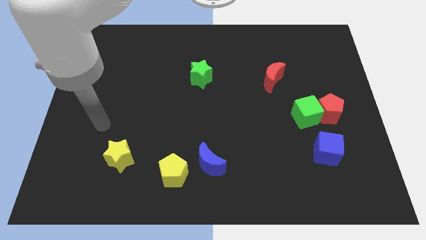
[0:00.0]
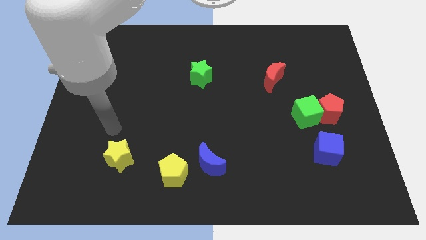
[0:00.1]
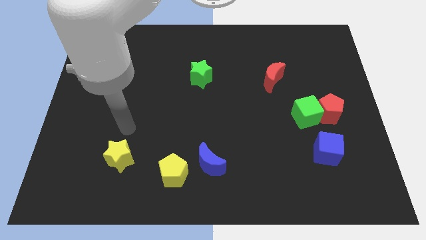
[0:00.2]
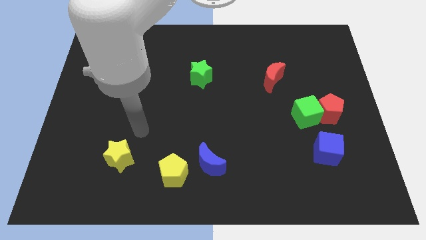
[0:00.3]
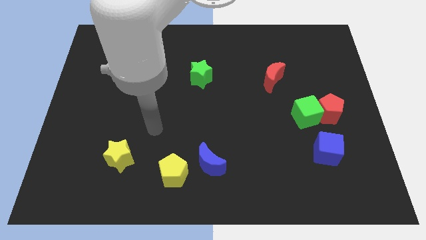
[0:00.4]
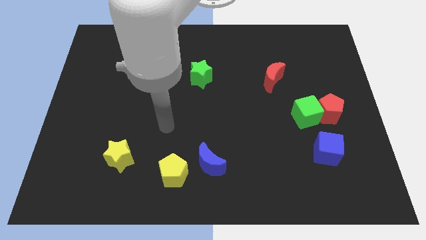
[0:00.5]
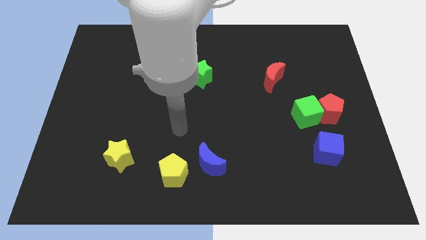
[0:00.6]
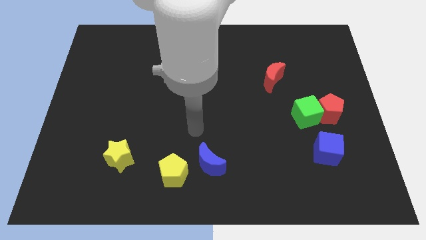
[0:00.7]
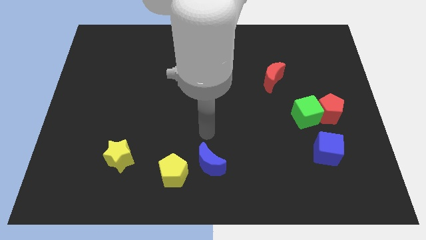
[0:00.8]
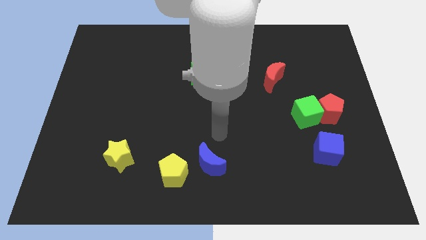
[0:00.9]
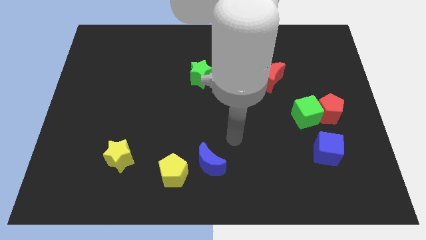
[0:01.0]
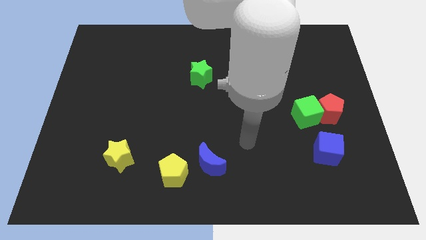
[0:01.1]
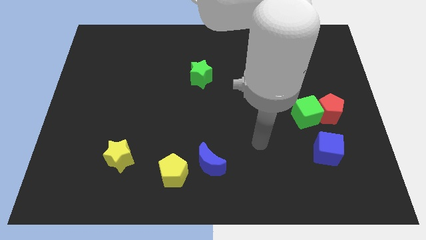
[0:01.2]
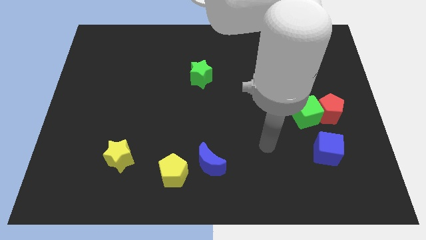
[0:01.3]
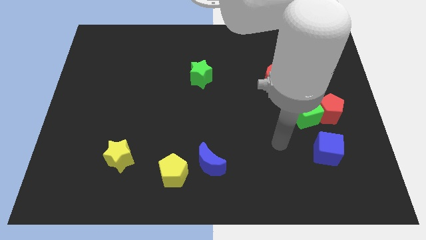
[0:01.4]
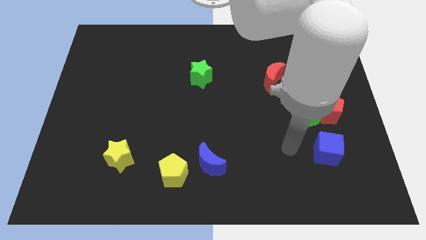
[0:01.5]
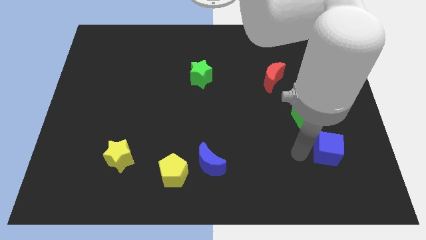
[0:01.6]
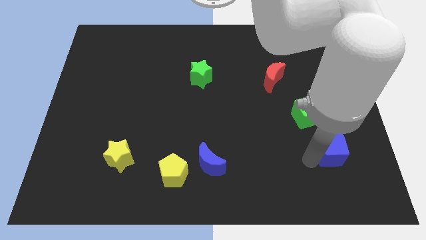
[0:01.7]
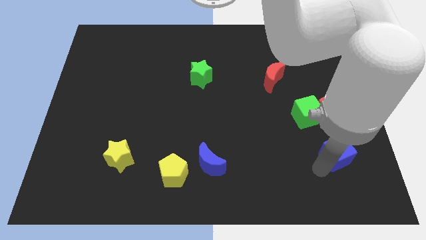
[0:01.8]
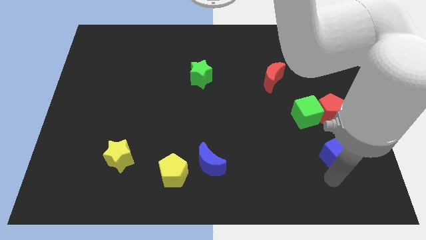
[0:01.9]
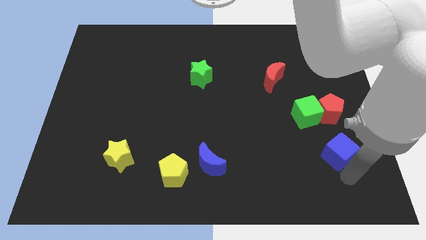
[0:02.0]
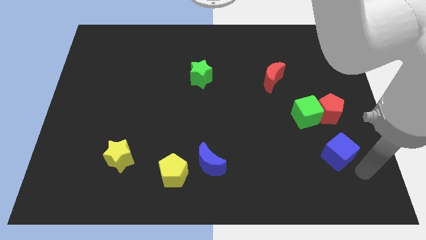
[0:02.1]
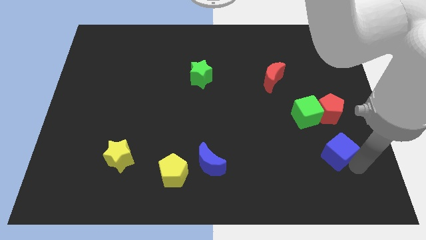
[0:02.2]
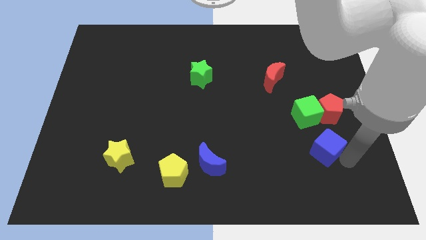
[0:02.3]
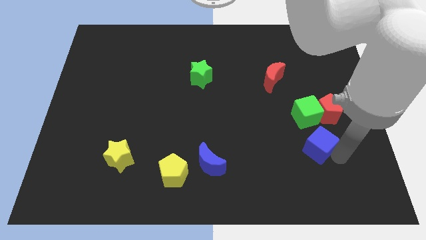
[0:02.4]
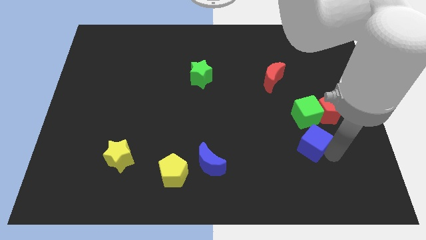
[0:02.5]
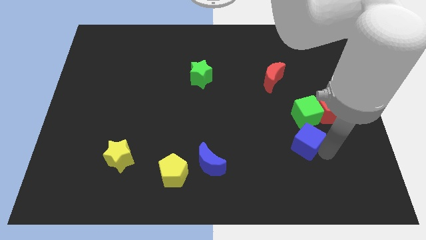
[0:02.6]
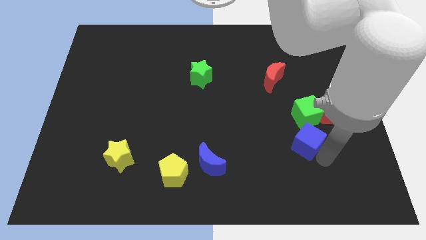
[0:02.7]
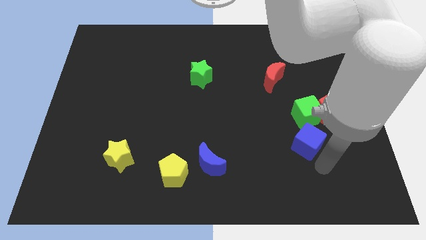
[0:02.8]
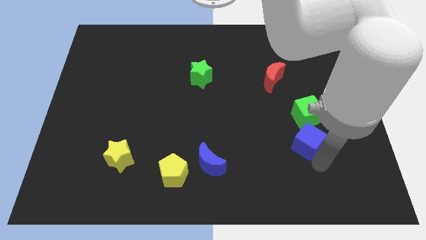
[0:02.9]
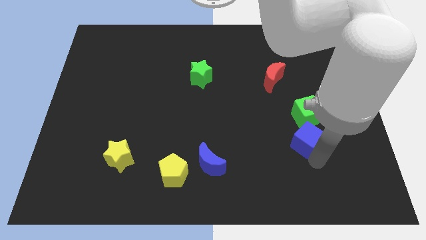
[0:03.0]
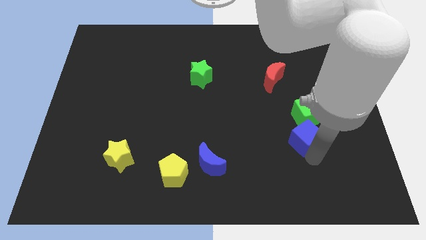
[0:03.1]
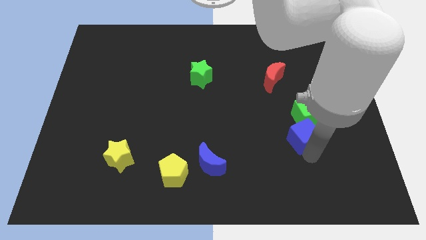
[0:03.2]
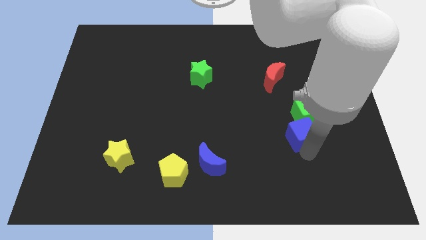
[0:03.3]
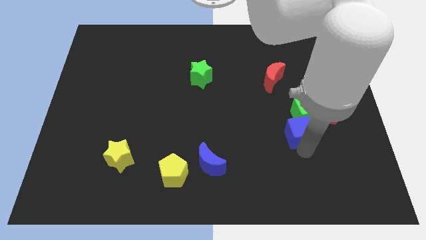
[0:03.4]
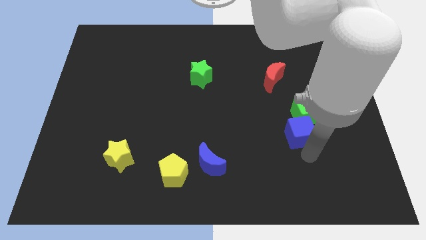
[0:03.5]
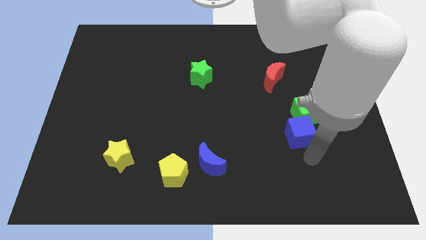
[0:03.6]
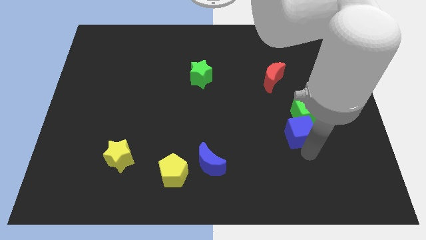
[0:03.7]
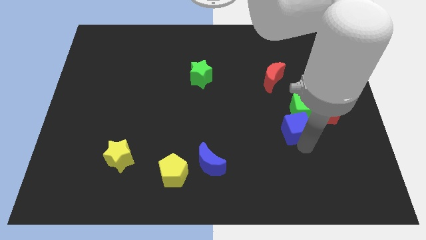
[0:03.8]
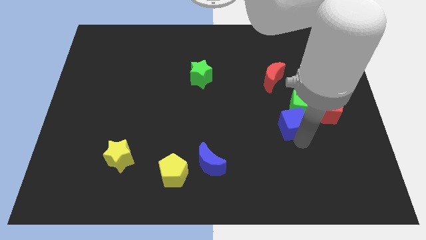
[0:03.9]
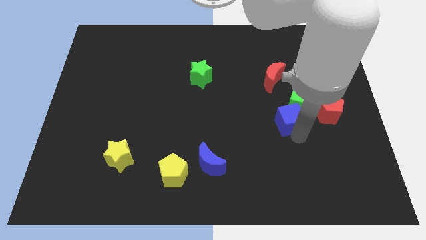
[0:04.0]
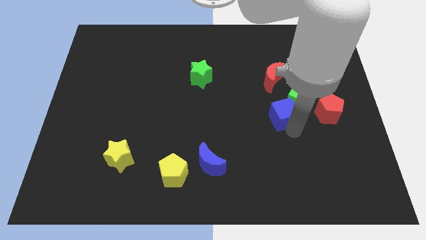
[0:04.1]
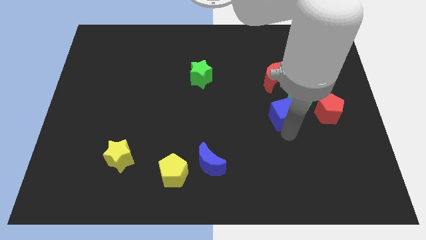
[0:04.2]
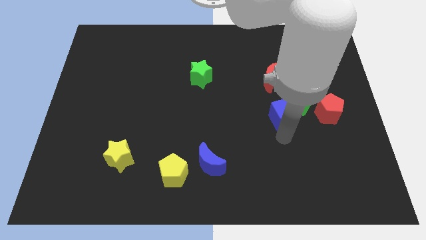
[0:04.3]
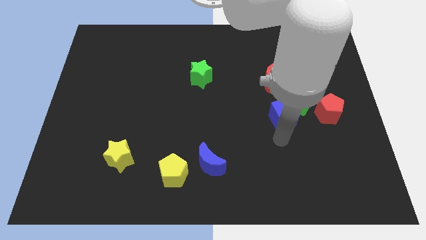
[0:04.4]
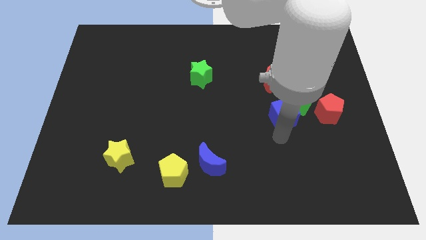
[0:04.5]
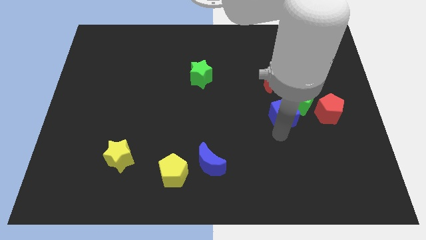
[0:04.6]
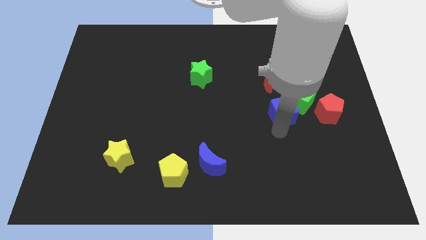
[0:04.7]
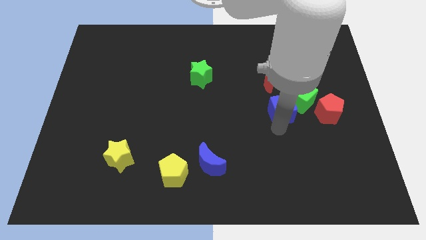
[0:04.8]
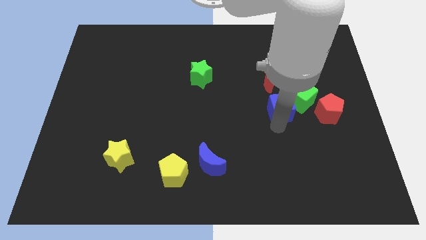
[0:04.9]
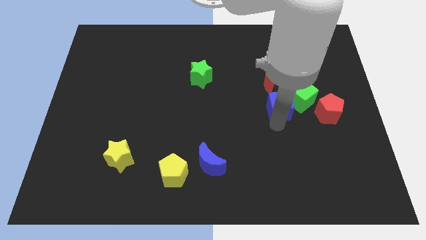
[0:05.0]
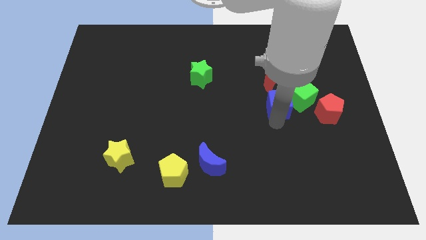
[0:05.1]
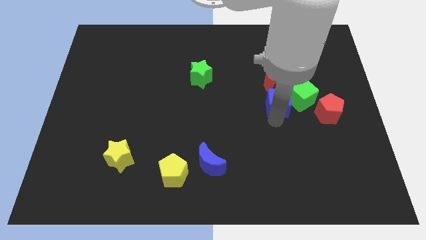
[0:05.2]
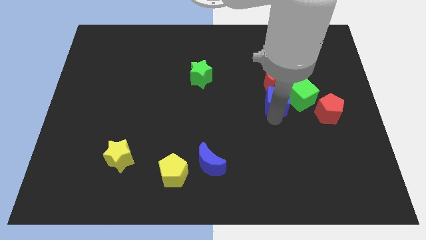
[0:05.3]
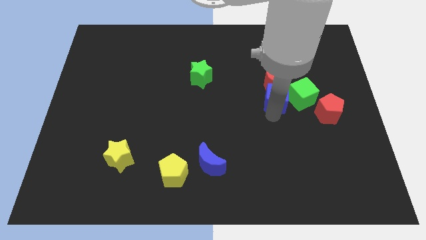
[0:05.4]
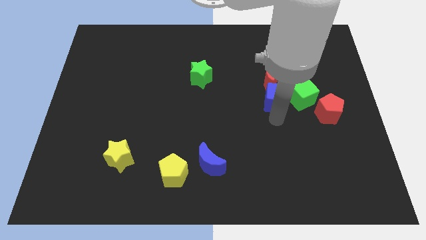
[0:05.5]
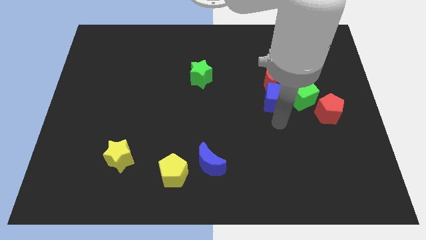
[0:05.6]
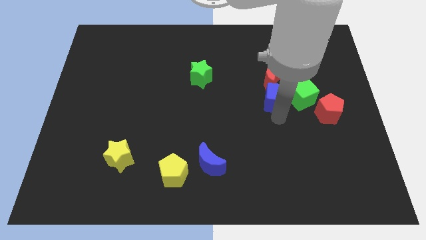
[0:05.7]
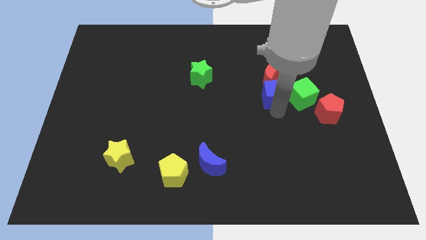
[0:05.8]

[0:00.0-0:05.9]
push the blue cube next to the red moon
